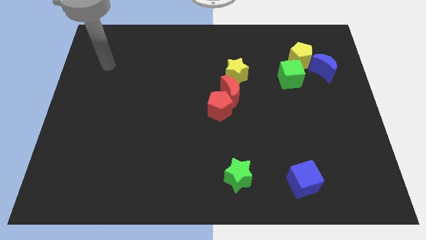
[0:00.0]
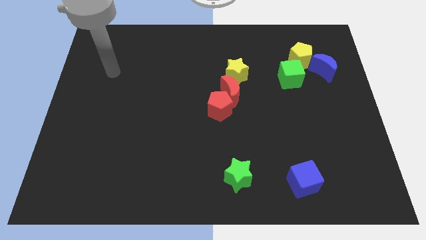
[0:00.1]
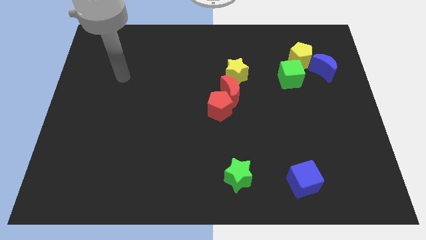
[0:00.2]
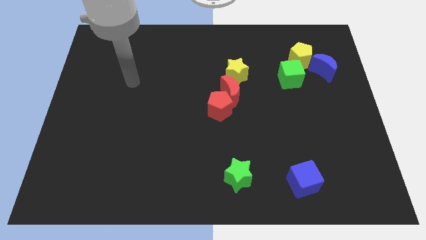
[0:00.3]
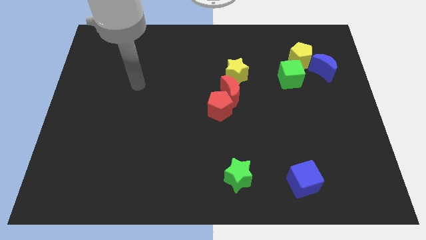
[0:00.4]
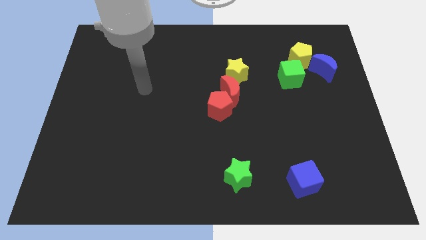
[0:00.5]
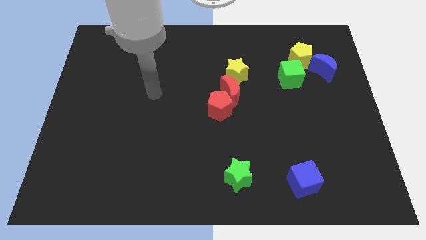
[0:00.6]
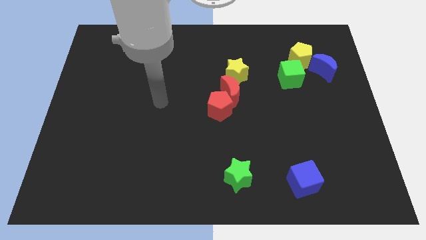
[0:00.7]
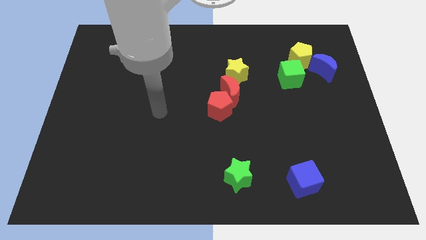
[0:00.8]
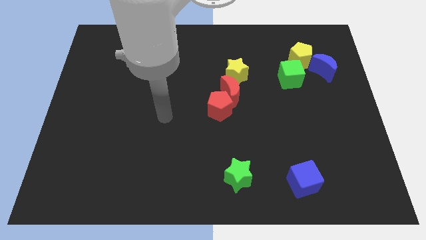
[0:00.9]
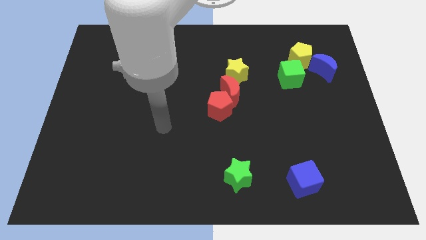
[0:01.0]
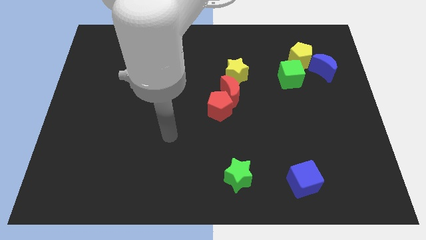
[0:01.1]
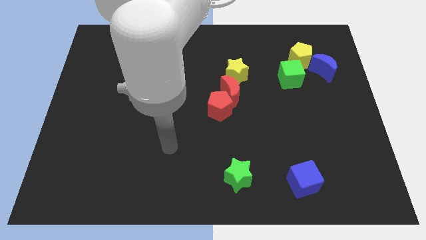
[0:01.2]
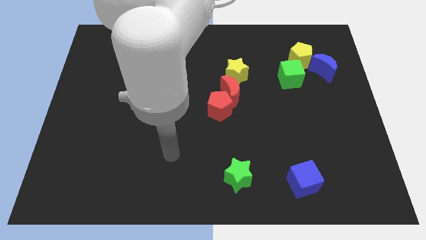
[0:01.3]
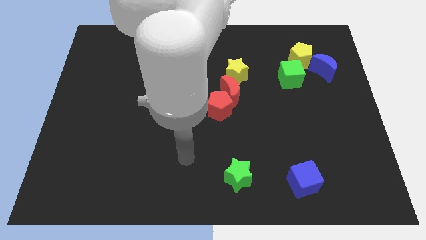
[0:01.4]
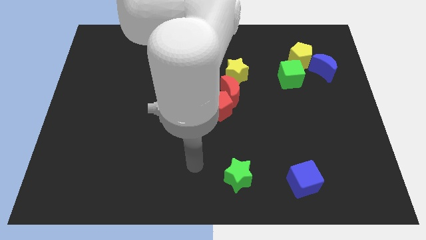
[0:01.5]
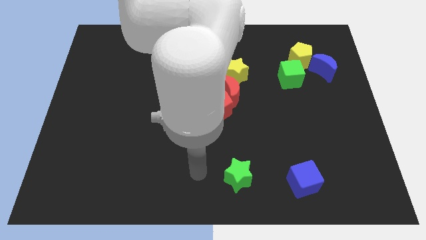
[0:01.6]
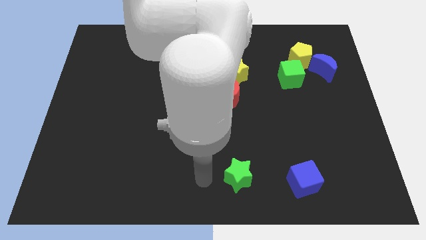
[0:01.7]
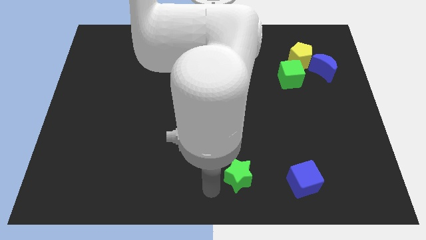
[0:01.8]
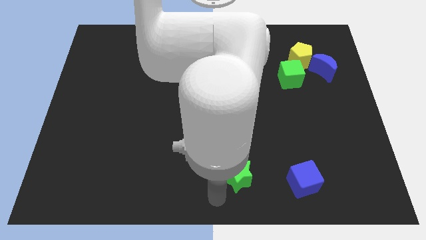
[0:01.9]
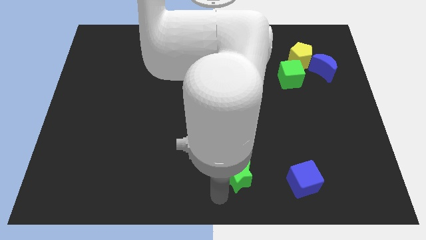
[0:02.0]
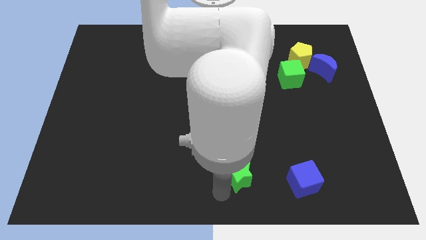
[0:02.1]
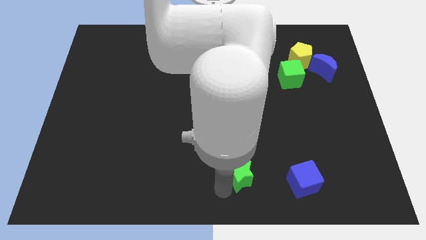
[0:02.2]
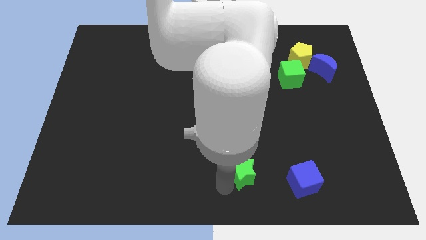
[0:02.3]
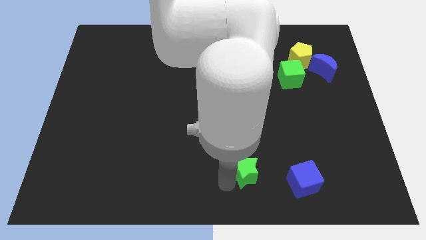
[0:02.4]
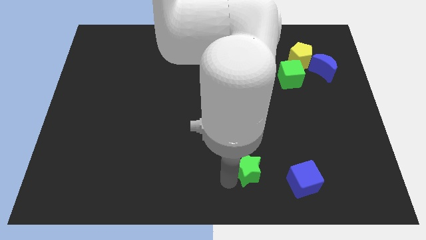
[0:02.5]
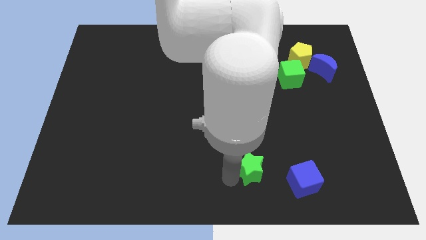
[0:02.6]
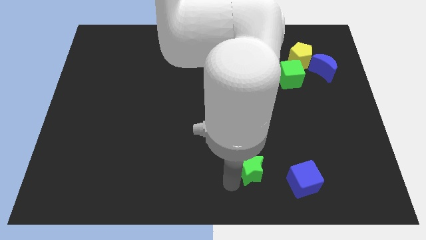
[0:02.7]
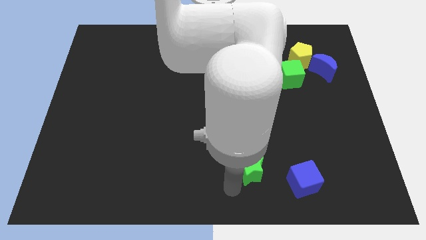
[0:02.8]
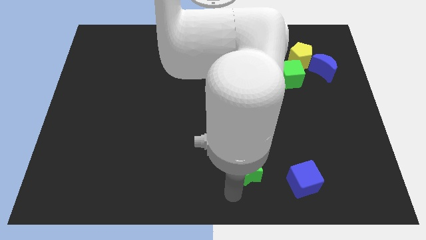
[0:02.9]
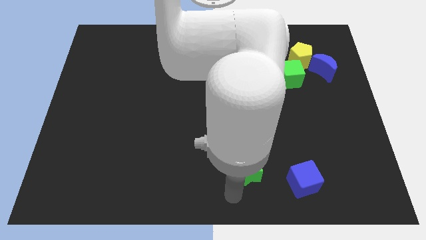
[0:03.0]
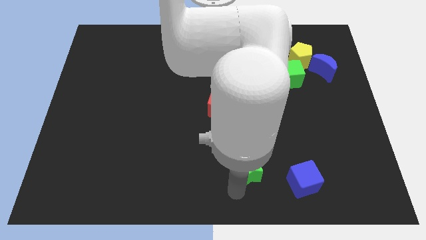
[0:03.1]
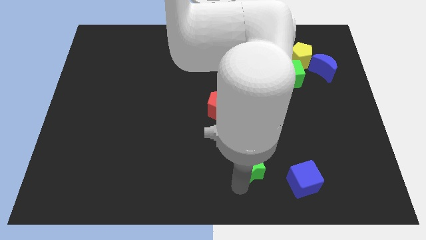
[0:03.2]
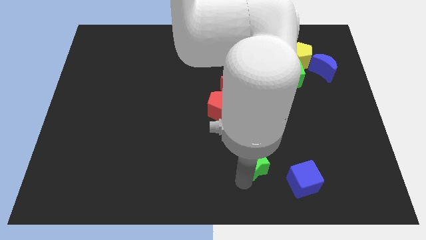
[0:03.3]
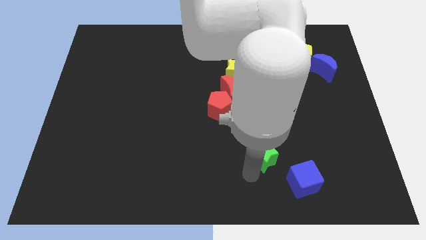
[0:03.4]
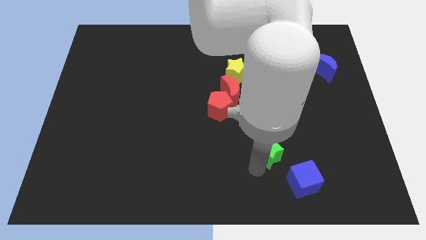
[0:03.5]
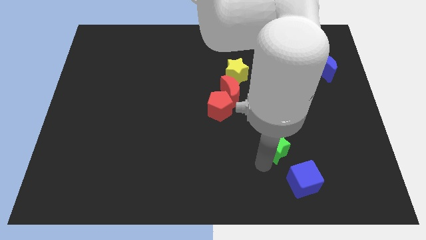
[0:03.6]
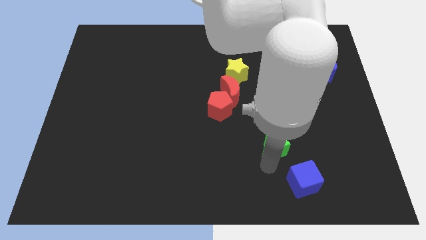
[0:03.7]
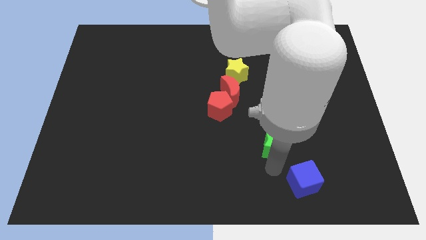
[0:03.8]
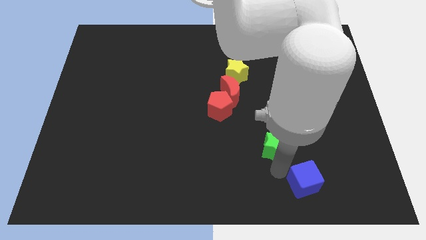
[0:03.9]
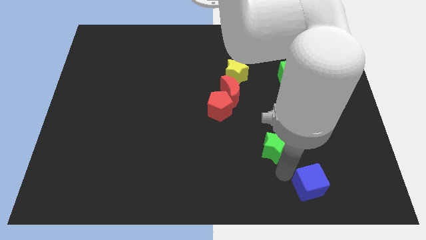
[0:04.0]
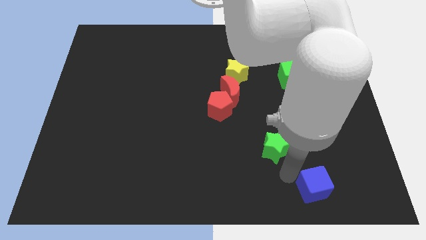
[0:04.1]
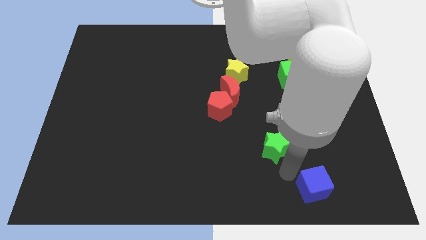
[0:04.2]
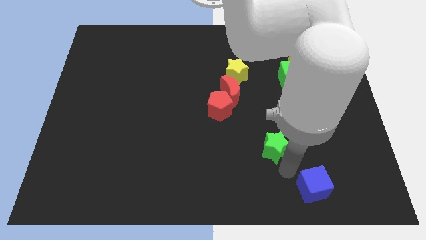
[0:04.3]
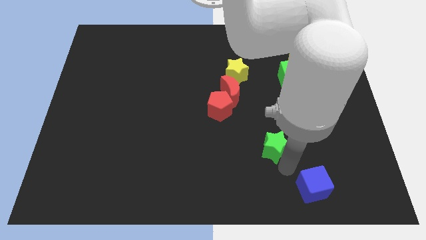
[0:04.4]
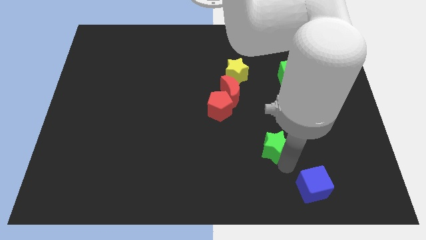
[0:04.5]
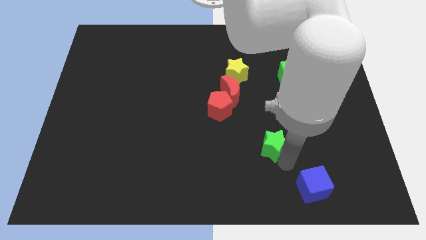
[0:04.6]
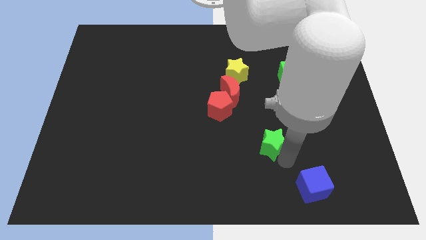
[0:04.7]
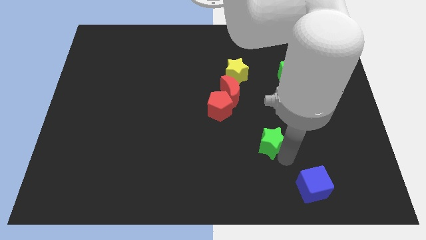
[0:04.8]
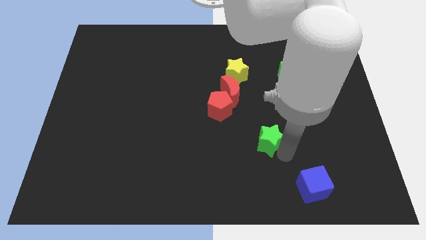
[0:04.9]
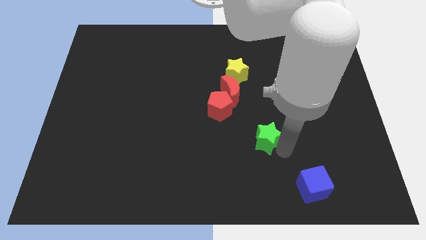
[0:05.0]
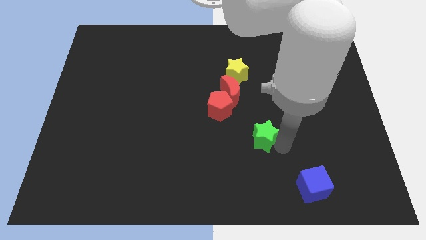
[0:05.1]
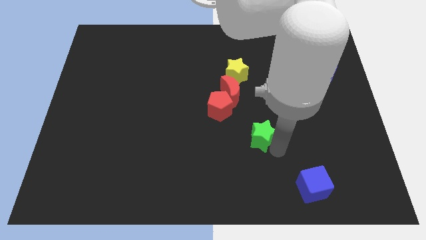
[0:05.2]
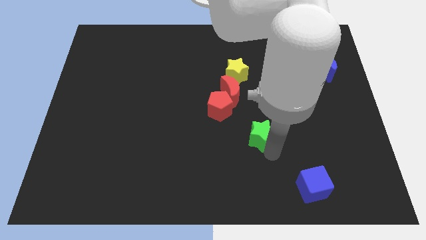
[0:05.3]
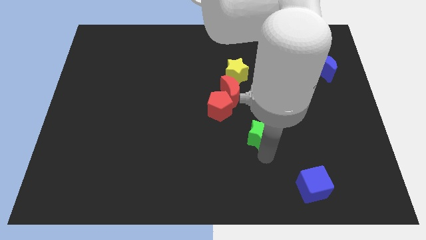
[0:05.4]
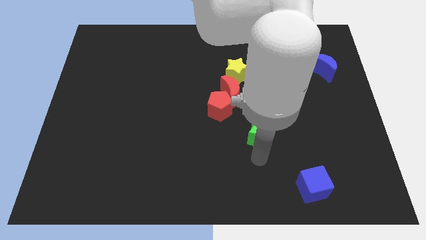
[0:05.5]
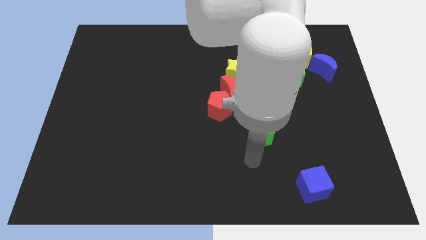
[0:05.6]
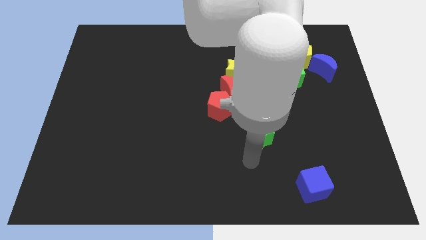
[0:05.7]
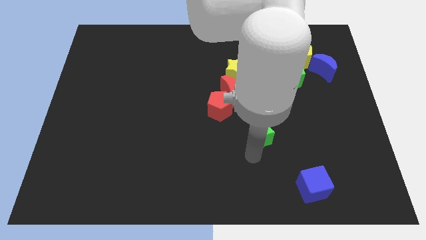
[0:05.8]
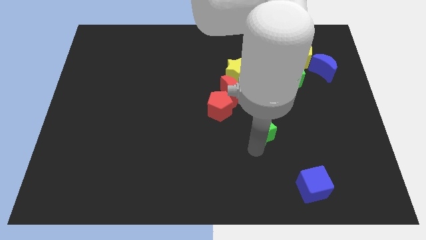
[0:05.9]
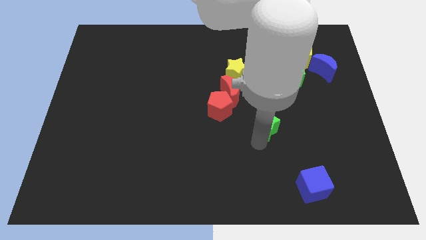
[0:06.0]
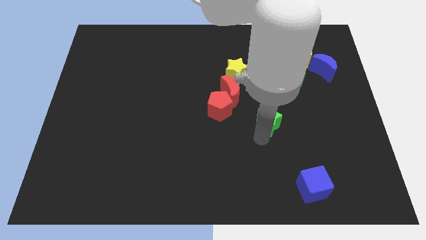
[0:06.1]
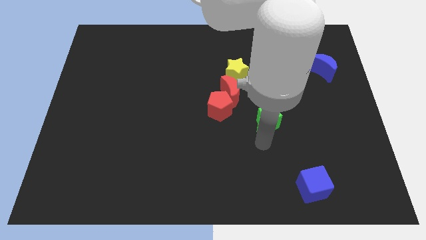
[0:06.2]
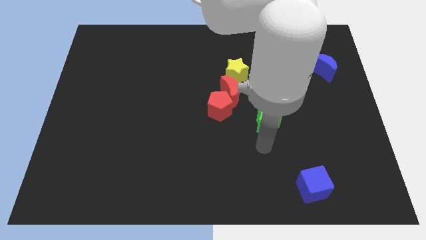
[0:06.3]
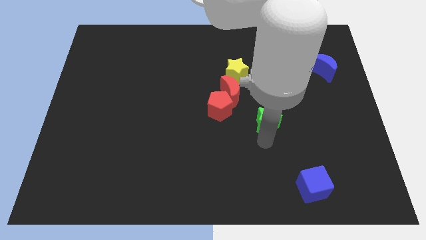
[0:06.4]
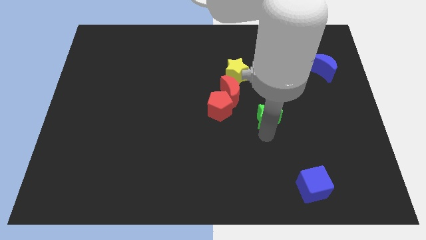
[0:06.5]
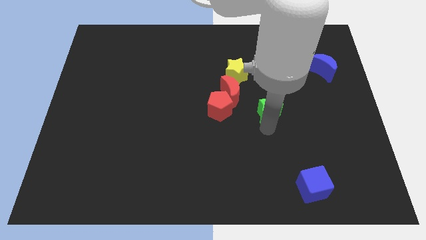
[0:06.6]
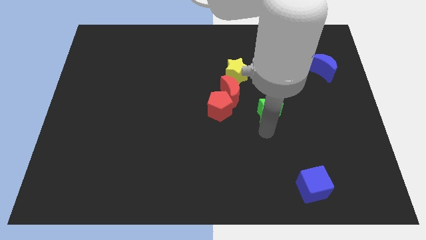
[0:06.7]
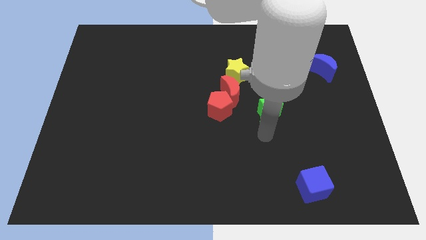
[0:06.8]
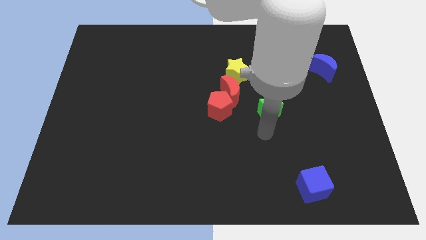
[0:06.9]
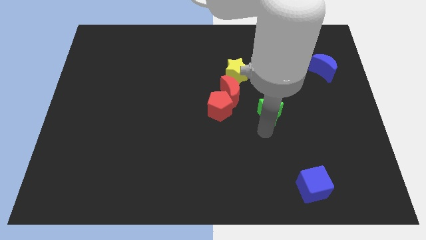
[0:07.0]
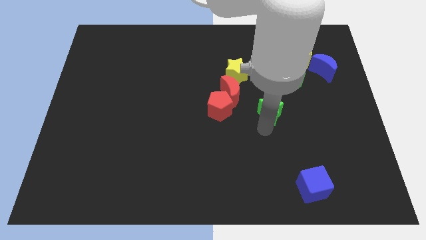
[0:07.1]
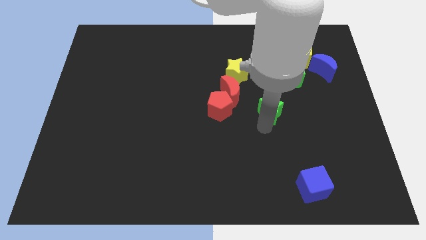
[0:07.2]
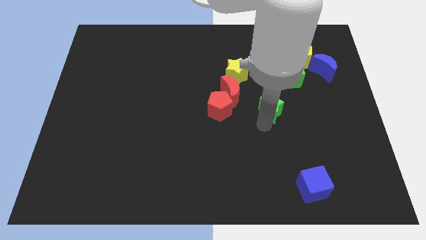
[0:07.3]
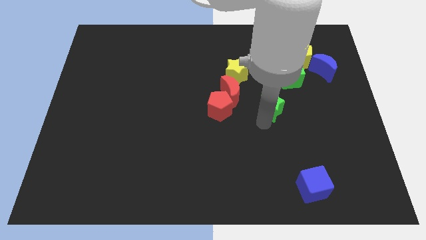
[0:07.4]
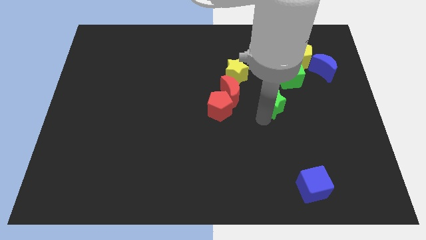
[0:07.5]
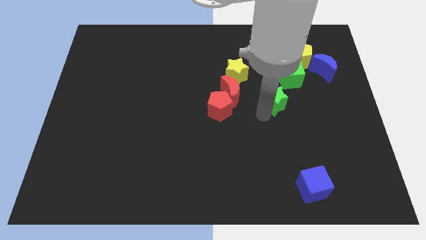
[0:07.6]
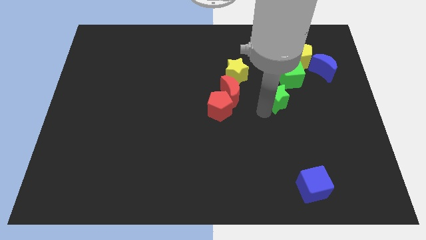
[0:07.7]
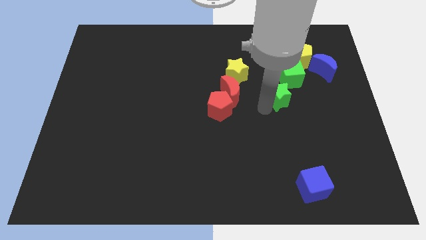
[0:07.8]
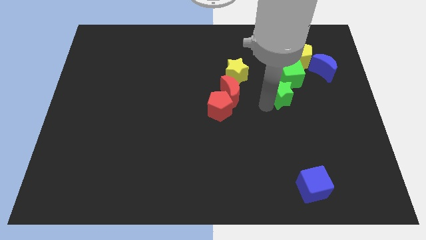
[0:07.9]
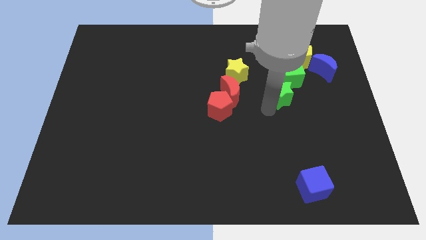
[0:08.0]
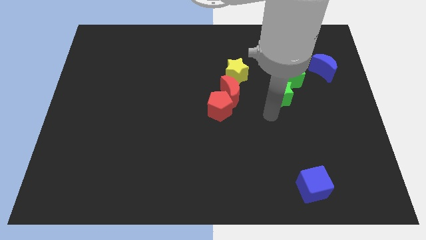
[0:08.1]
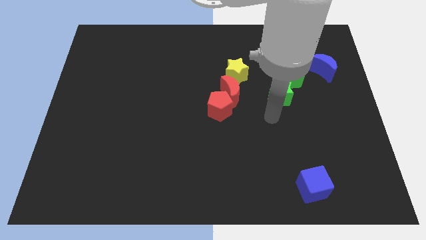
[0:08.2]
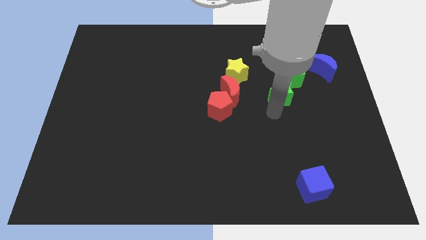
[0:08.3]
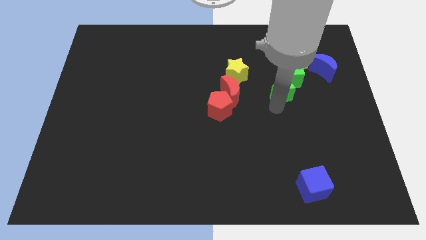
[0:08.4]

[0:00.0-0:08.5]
move the green star towards the green cube
